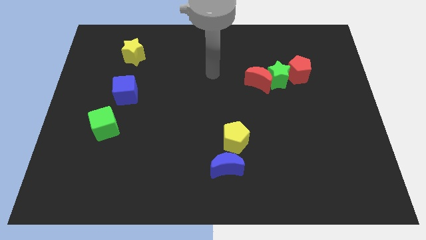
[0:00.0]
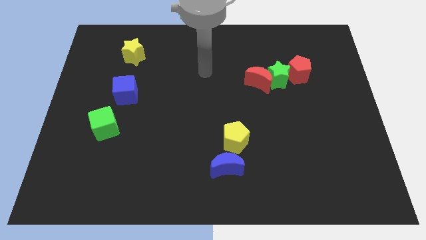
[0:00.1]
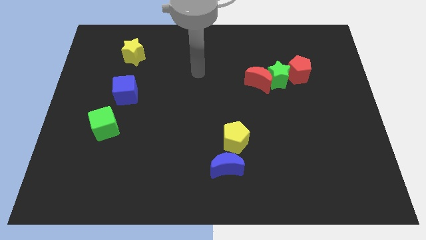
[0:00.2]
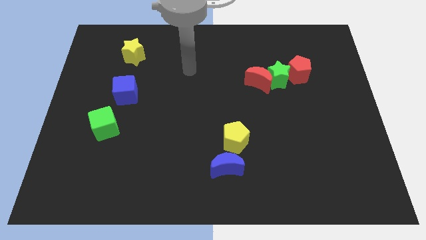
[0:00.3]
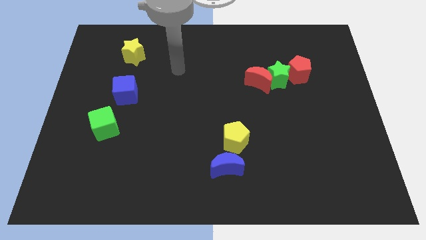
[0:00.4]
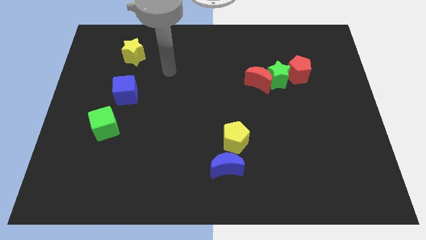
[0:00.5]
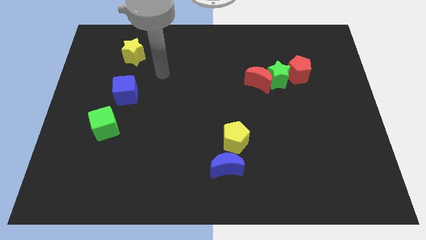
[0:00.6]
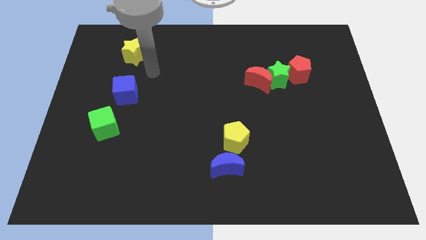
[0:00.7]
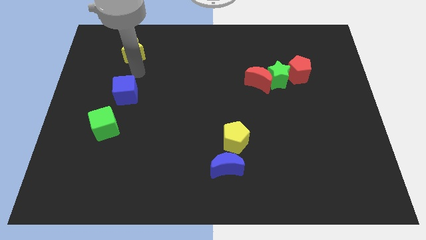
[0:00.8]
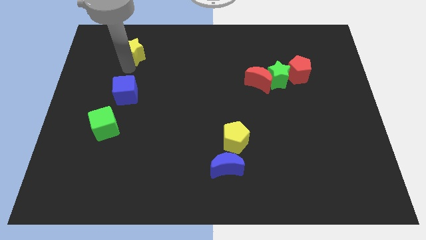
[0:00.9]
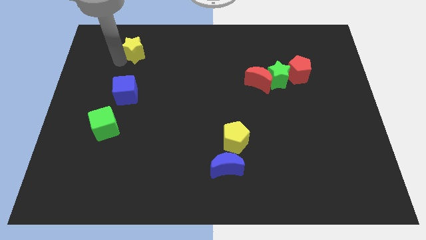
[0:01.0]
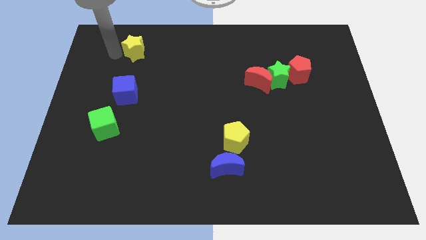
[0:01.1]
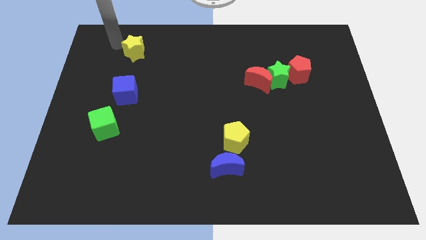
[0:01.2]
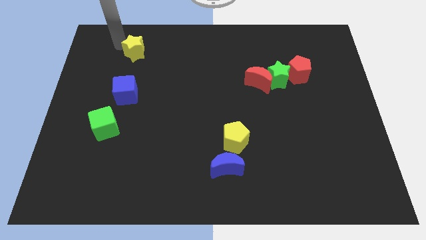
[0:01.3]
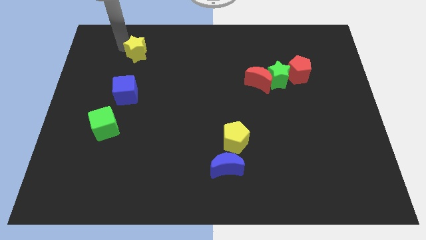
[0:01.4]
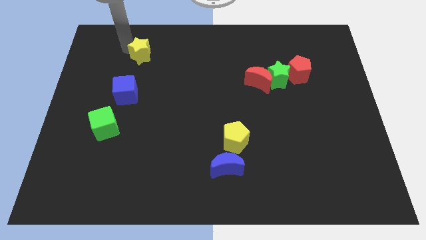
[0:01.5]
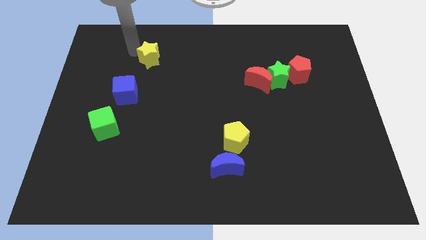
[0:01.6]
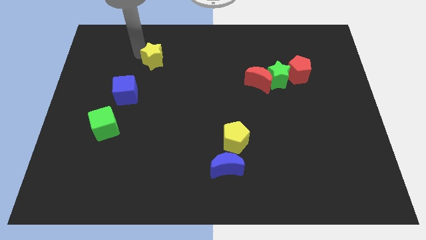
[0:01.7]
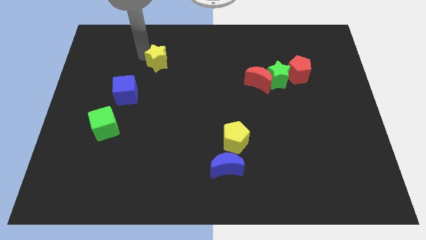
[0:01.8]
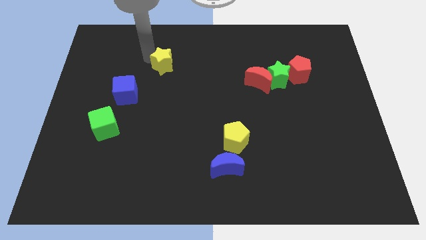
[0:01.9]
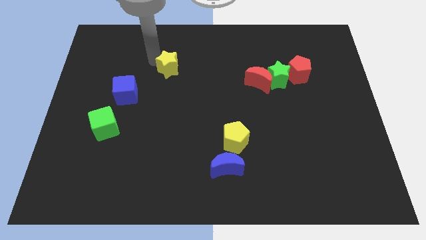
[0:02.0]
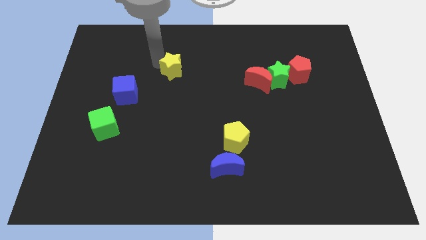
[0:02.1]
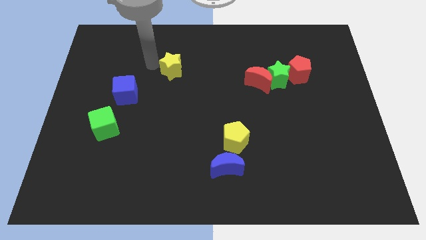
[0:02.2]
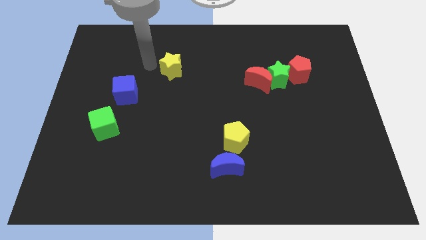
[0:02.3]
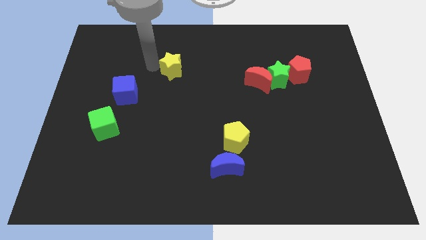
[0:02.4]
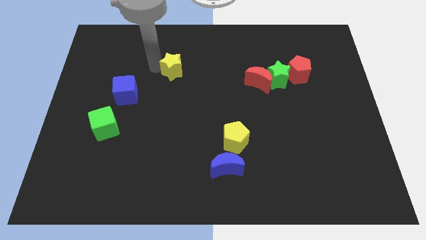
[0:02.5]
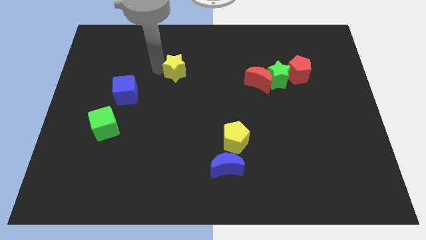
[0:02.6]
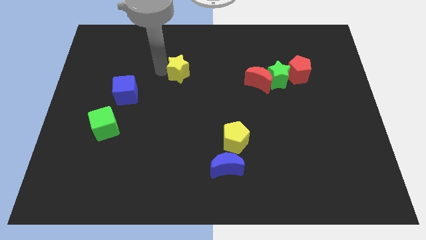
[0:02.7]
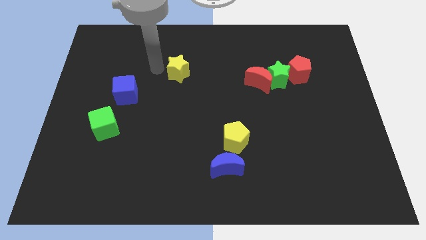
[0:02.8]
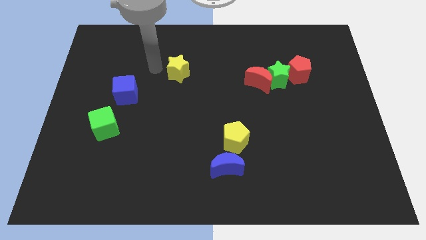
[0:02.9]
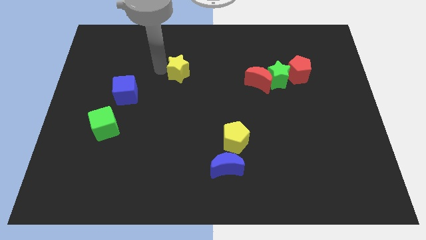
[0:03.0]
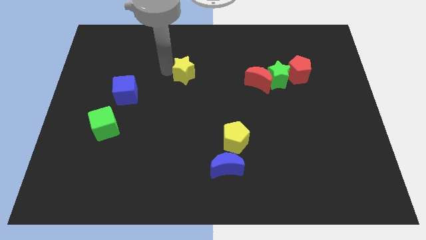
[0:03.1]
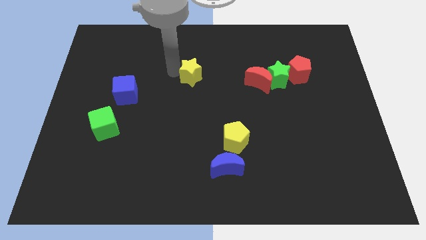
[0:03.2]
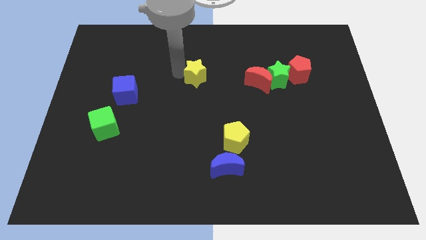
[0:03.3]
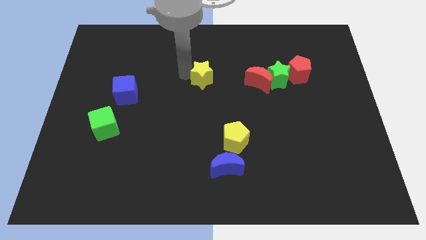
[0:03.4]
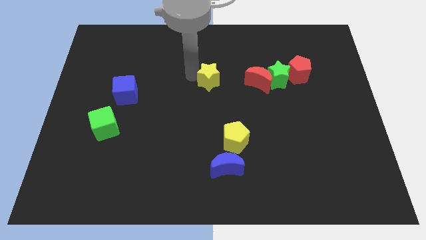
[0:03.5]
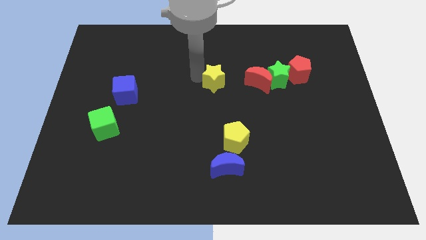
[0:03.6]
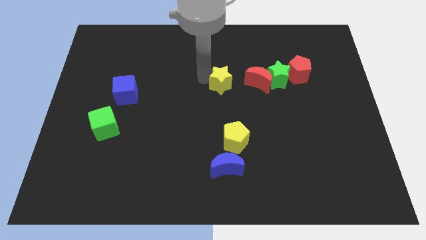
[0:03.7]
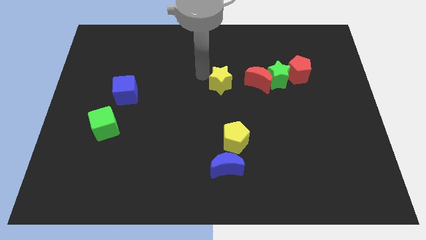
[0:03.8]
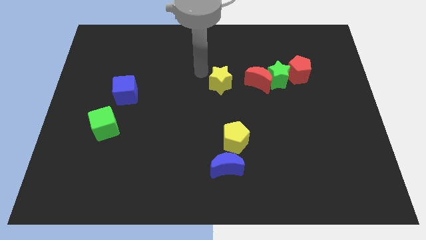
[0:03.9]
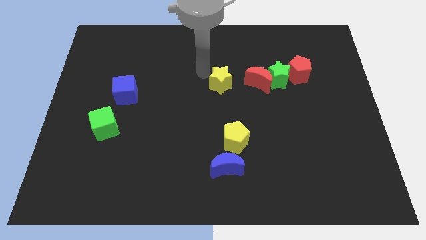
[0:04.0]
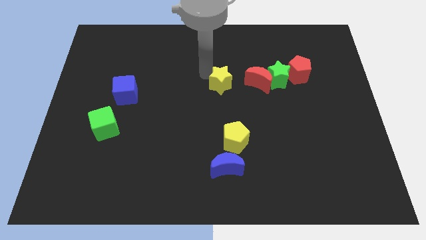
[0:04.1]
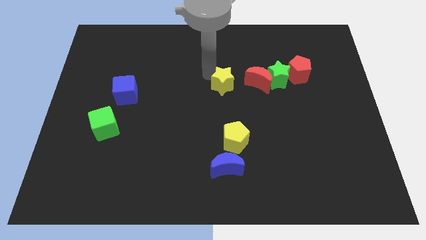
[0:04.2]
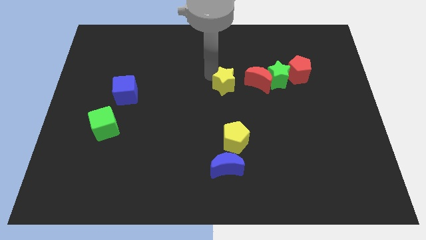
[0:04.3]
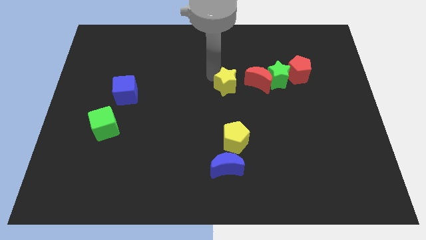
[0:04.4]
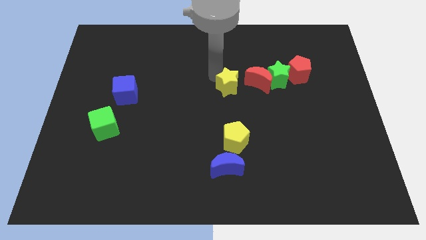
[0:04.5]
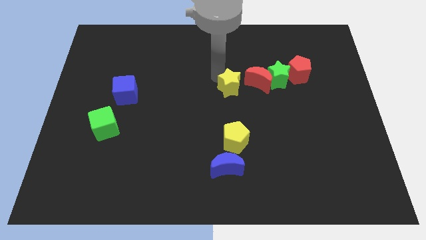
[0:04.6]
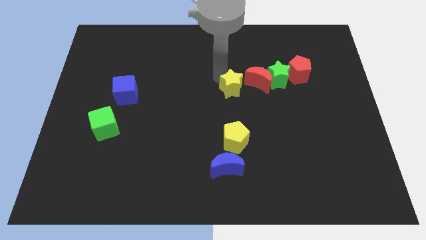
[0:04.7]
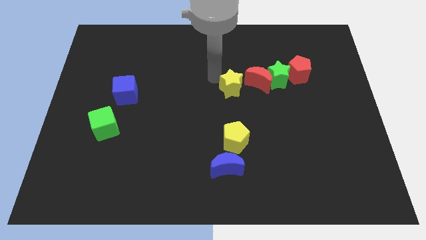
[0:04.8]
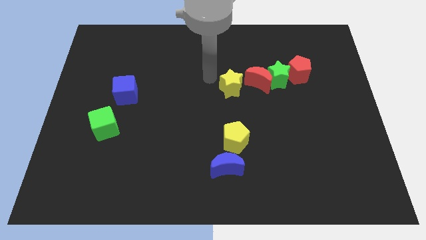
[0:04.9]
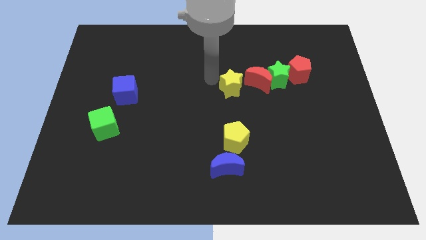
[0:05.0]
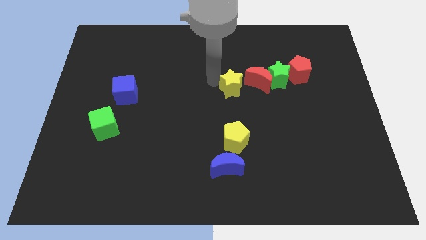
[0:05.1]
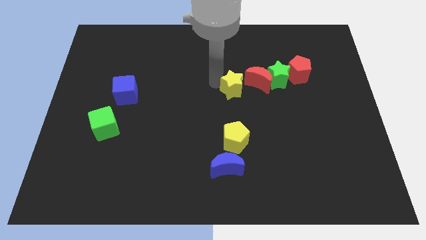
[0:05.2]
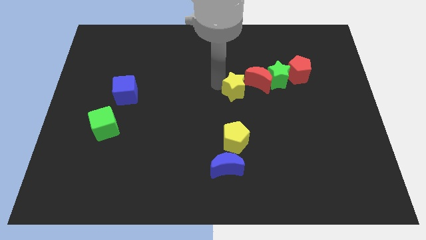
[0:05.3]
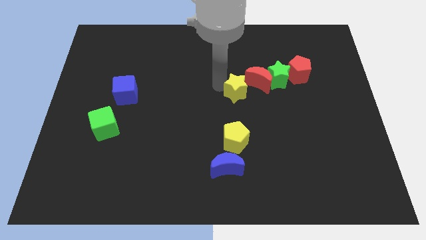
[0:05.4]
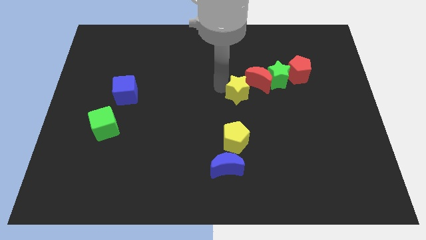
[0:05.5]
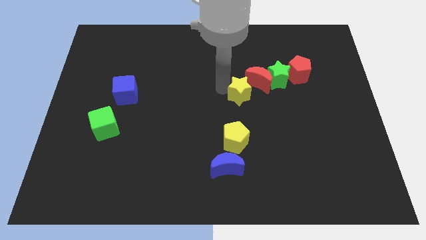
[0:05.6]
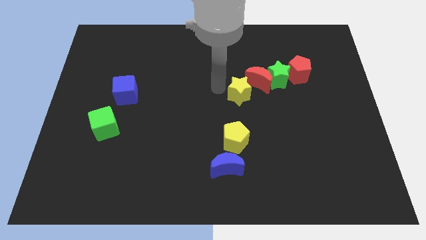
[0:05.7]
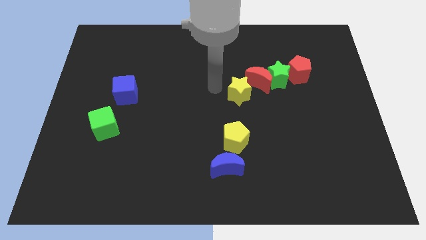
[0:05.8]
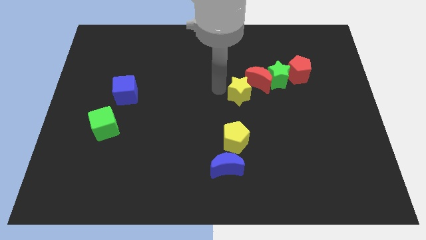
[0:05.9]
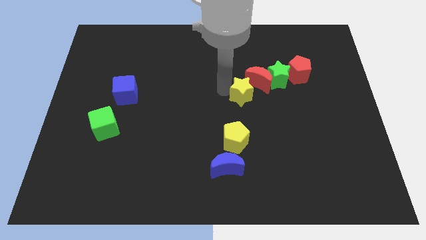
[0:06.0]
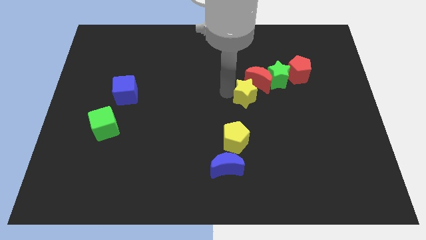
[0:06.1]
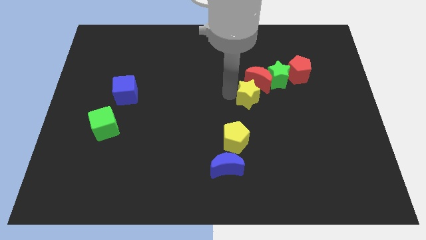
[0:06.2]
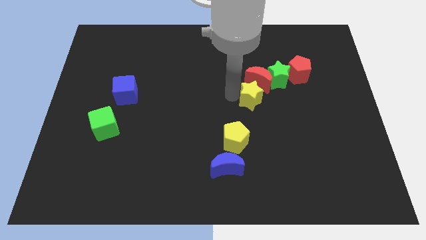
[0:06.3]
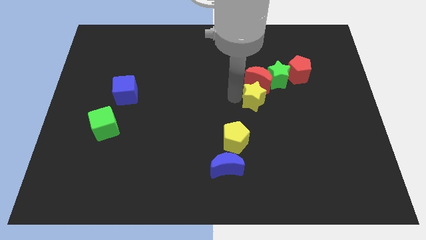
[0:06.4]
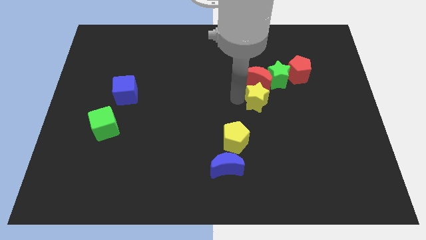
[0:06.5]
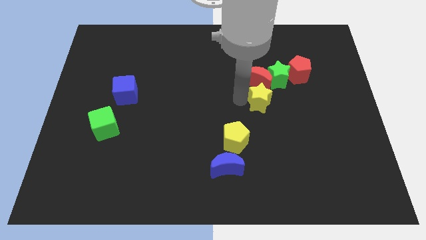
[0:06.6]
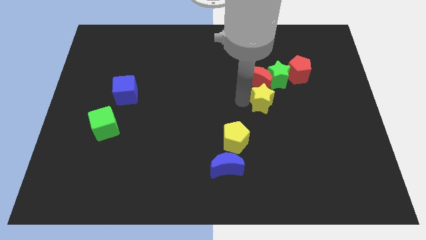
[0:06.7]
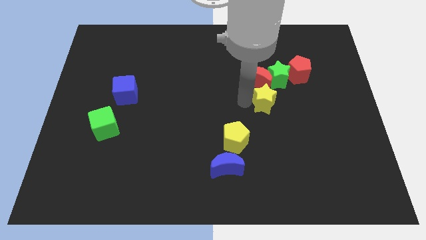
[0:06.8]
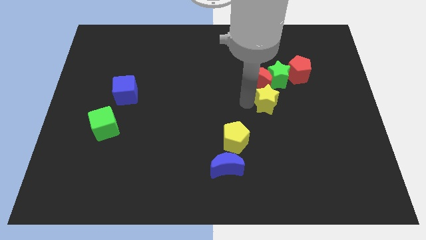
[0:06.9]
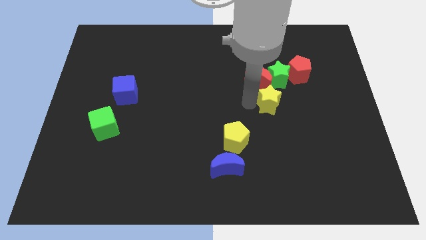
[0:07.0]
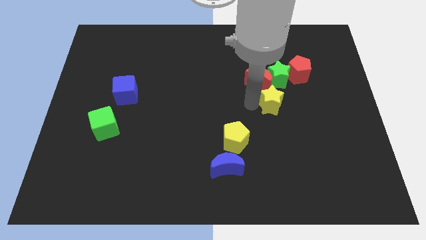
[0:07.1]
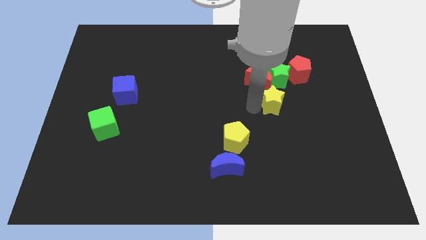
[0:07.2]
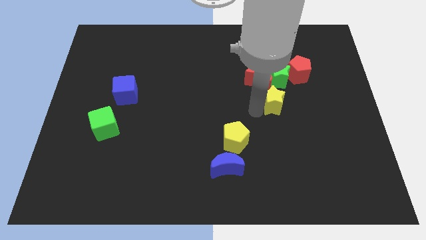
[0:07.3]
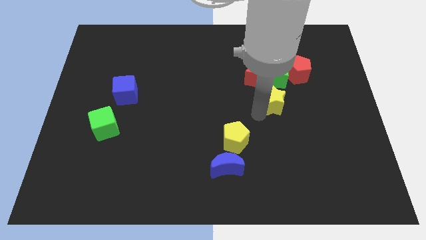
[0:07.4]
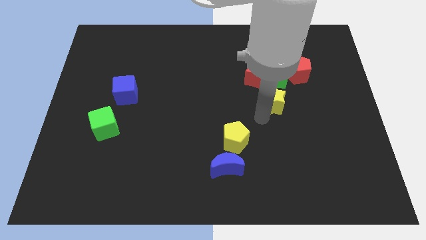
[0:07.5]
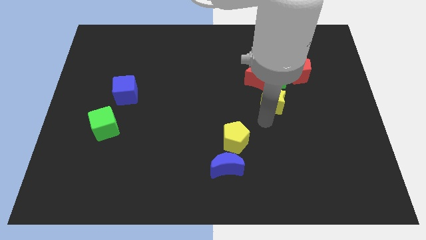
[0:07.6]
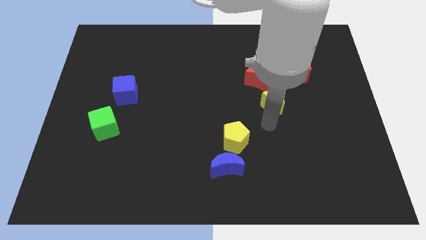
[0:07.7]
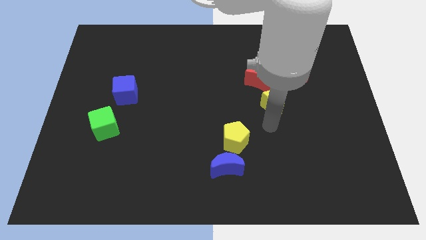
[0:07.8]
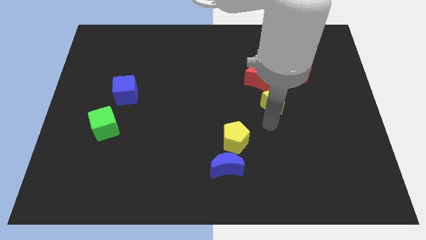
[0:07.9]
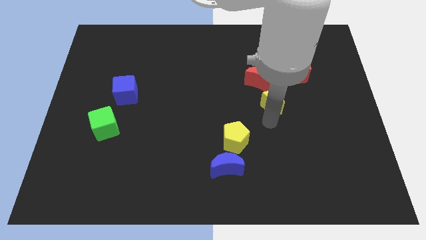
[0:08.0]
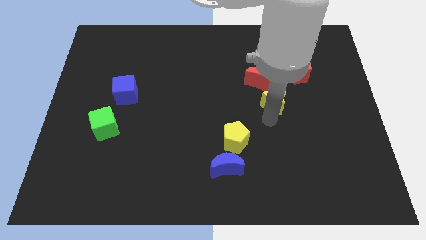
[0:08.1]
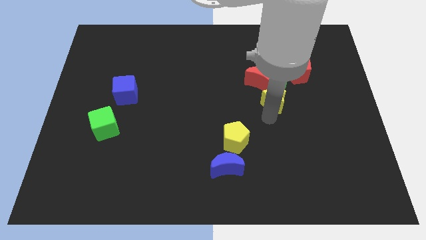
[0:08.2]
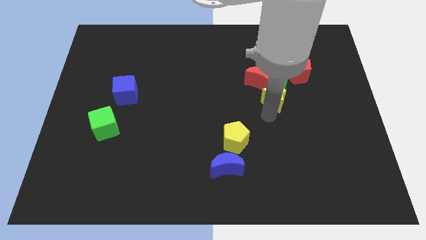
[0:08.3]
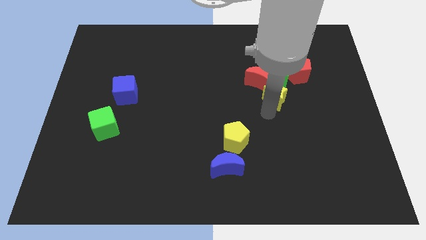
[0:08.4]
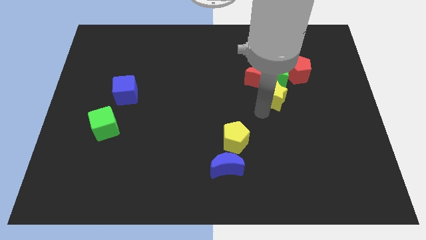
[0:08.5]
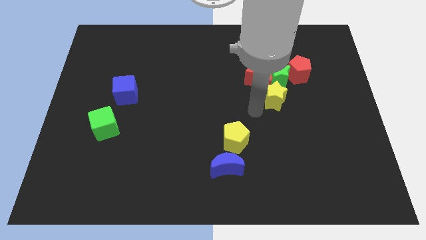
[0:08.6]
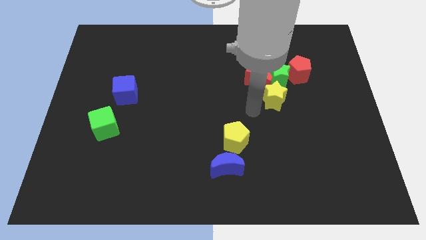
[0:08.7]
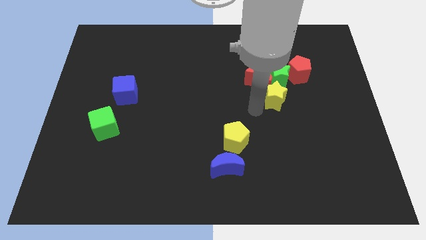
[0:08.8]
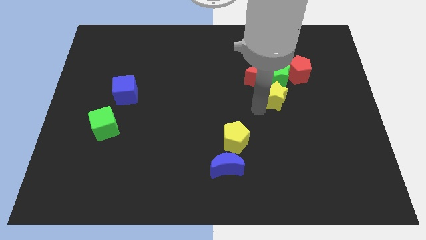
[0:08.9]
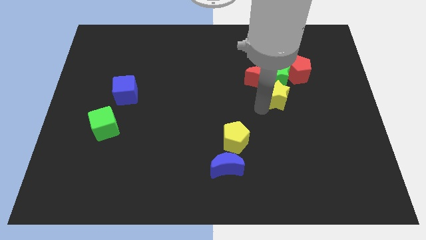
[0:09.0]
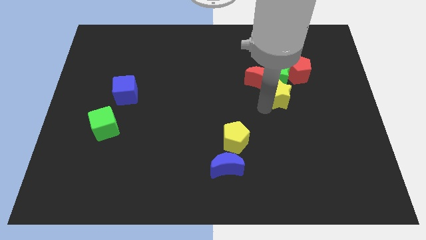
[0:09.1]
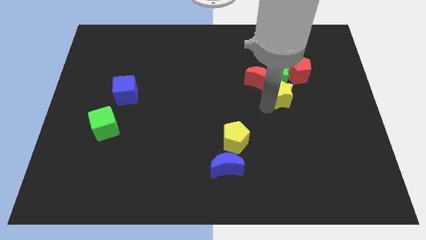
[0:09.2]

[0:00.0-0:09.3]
push the yellow star to the right side of the red moon
